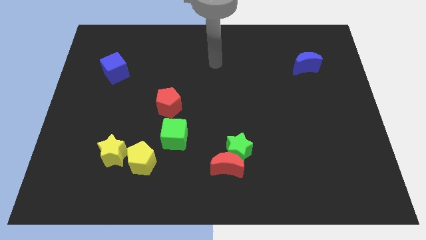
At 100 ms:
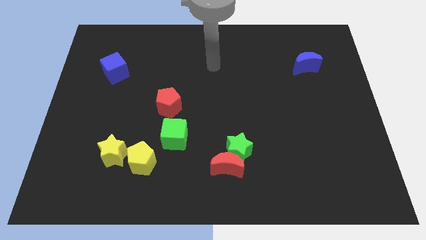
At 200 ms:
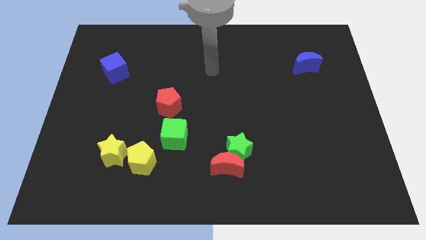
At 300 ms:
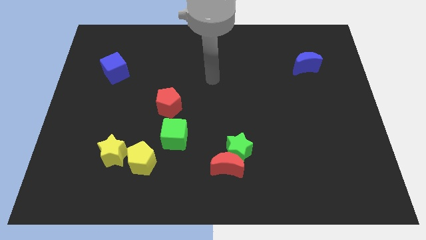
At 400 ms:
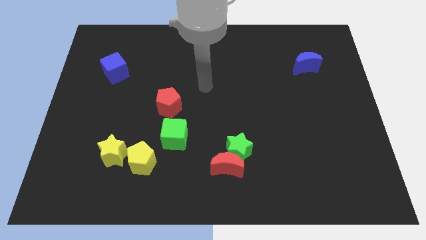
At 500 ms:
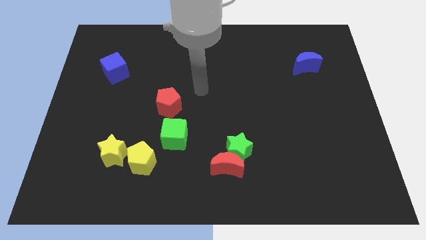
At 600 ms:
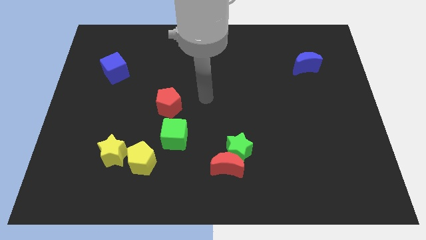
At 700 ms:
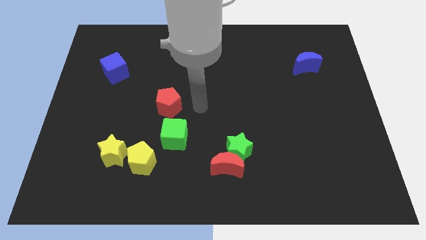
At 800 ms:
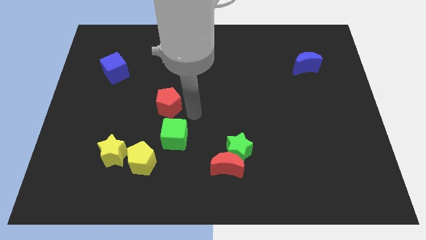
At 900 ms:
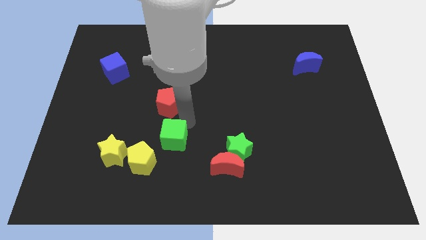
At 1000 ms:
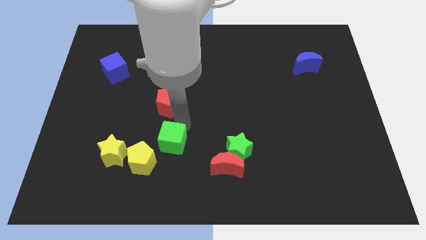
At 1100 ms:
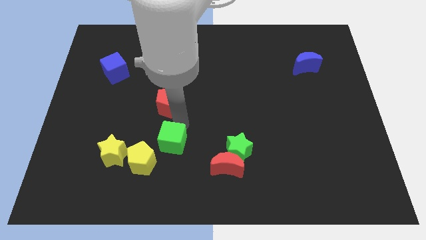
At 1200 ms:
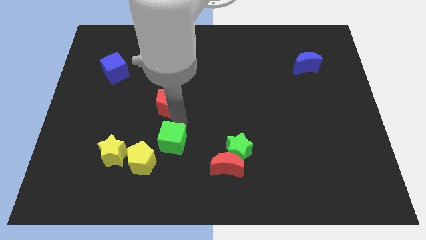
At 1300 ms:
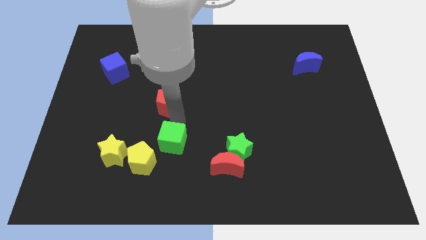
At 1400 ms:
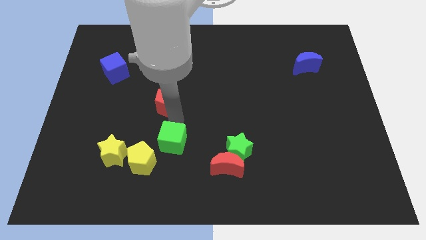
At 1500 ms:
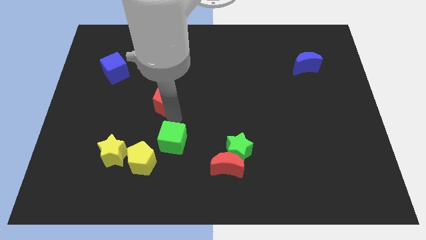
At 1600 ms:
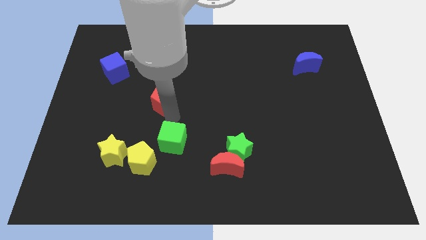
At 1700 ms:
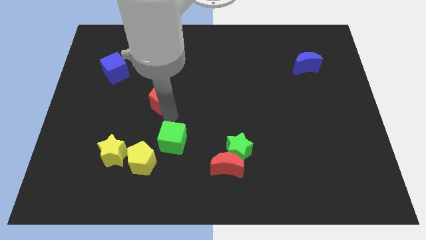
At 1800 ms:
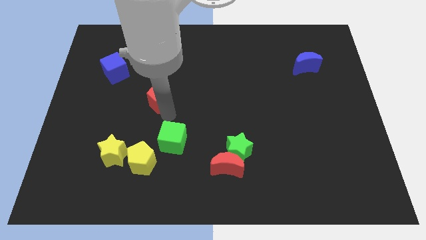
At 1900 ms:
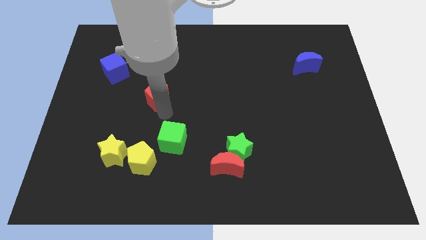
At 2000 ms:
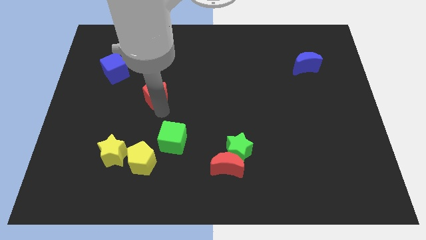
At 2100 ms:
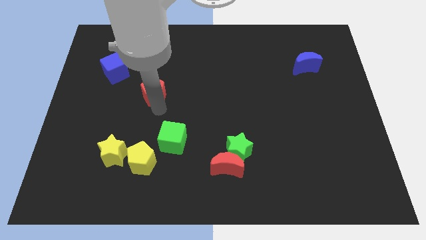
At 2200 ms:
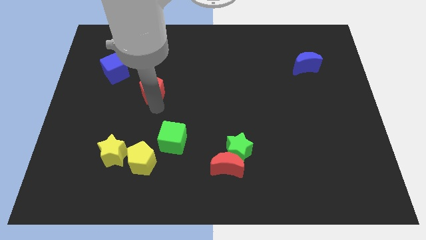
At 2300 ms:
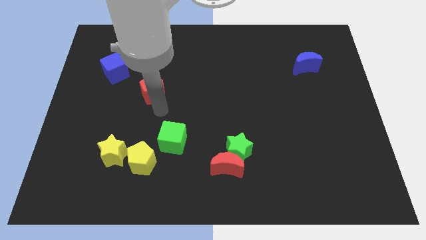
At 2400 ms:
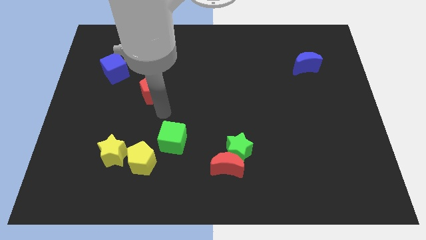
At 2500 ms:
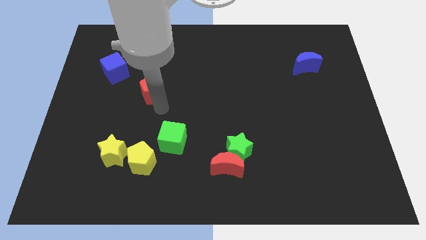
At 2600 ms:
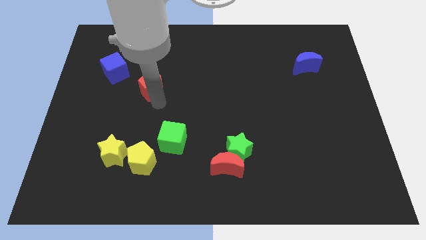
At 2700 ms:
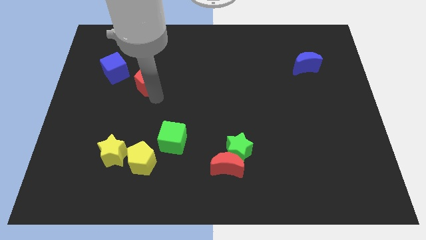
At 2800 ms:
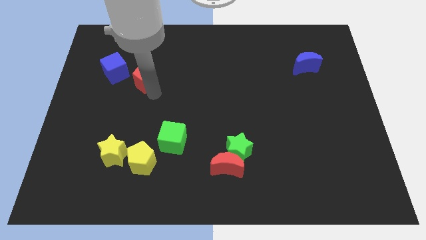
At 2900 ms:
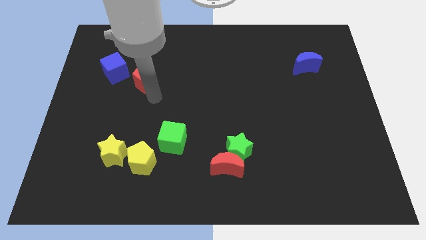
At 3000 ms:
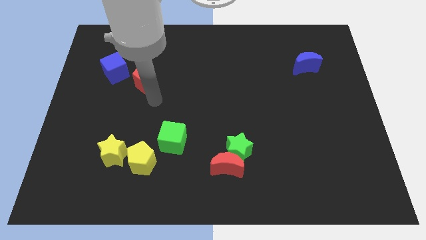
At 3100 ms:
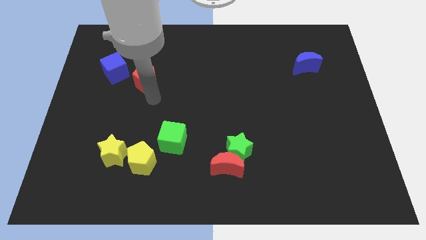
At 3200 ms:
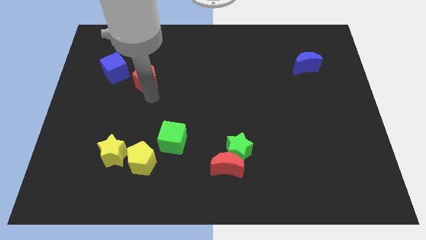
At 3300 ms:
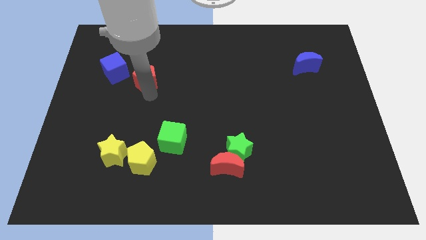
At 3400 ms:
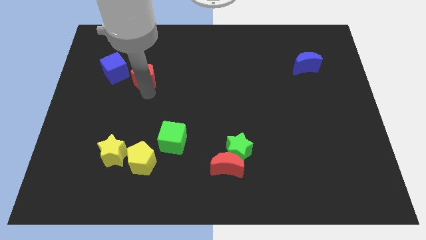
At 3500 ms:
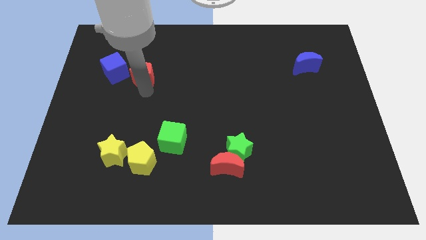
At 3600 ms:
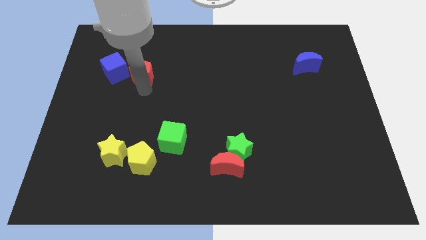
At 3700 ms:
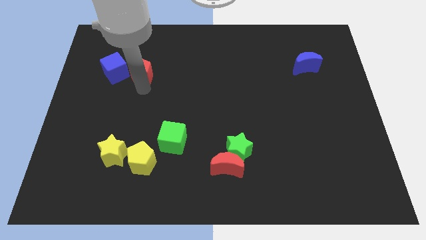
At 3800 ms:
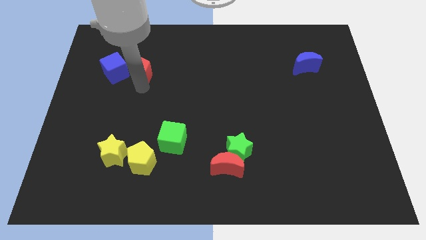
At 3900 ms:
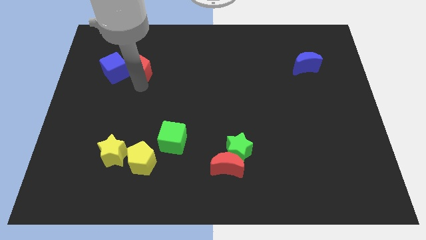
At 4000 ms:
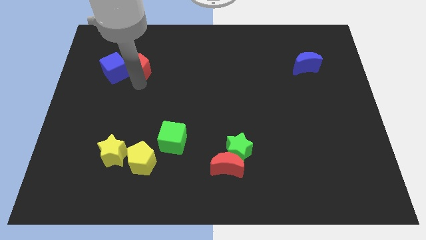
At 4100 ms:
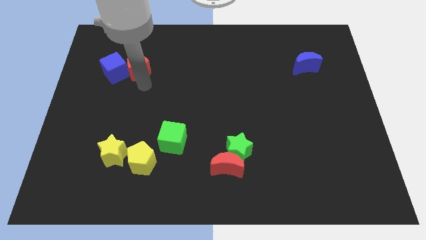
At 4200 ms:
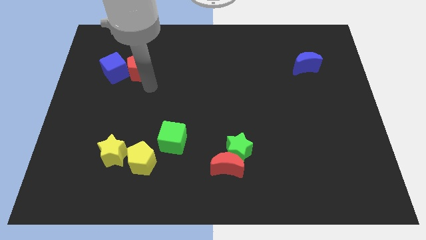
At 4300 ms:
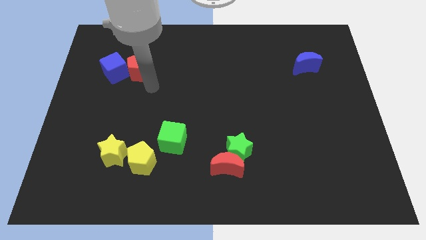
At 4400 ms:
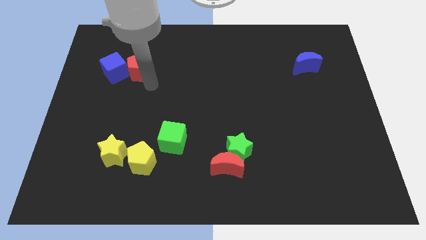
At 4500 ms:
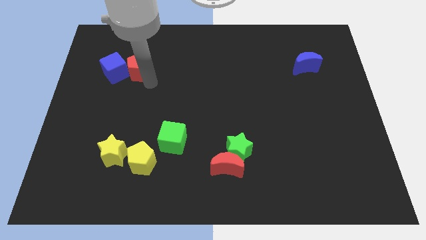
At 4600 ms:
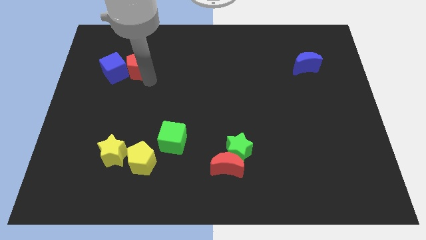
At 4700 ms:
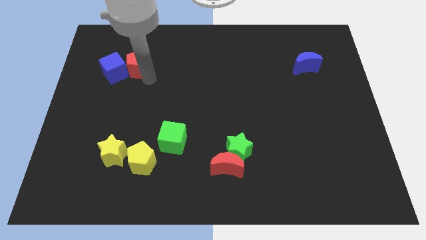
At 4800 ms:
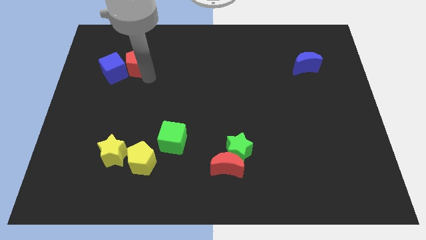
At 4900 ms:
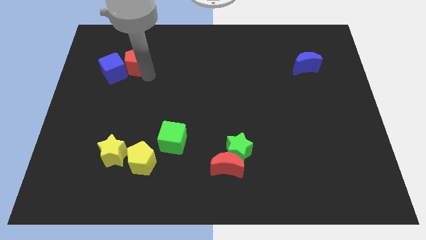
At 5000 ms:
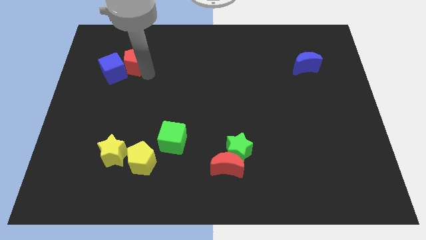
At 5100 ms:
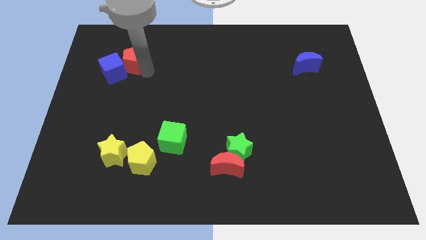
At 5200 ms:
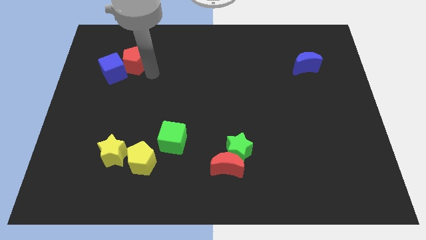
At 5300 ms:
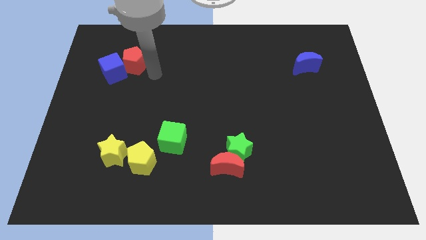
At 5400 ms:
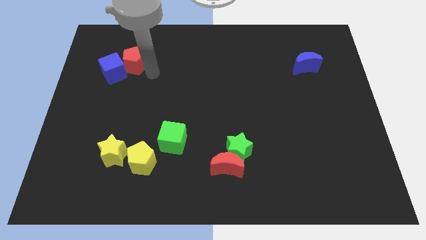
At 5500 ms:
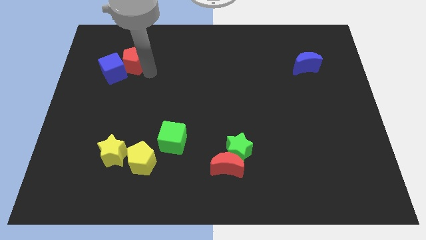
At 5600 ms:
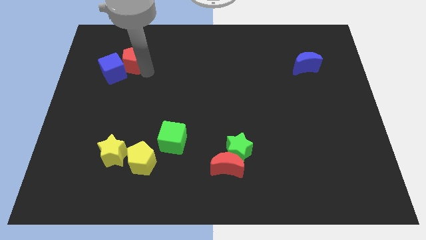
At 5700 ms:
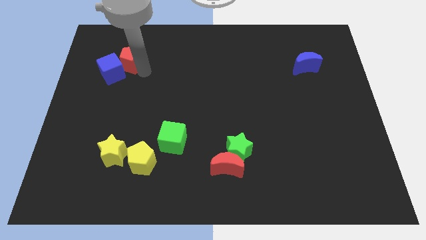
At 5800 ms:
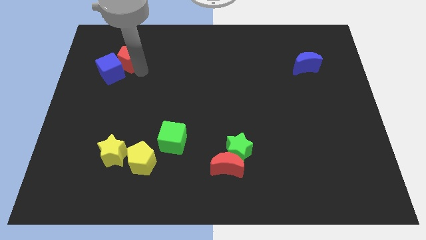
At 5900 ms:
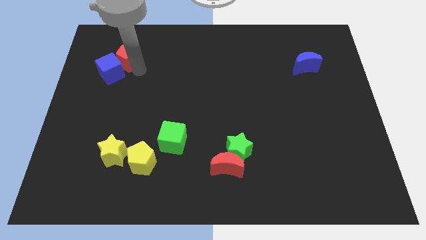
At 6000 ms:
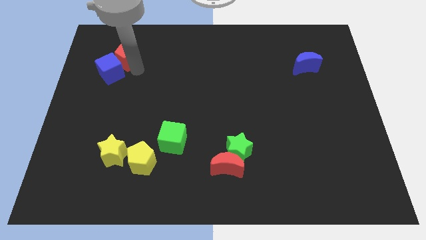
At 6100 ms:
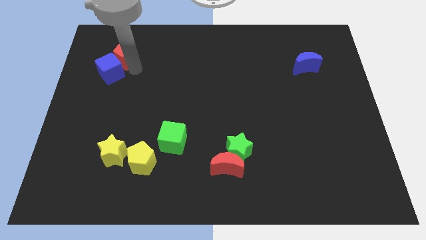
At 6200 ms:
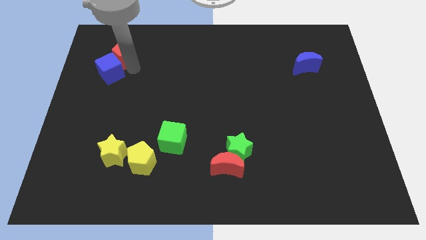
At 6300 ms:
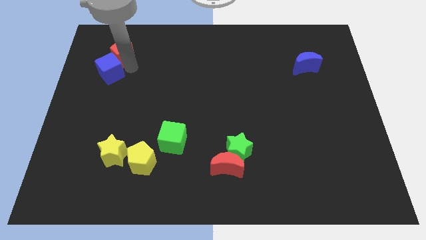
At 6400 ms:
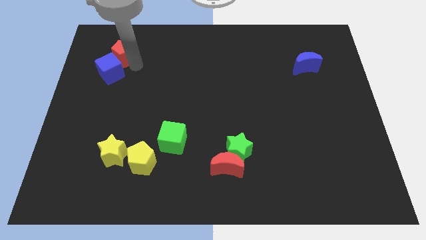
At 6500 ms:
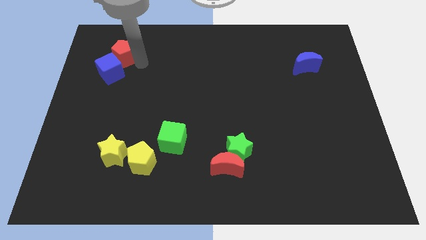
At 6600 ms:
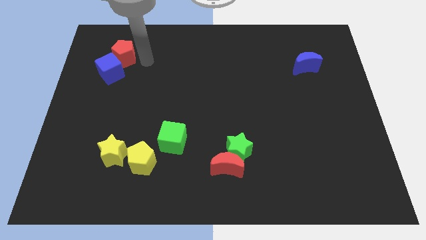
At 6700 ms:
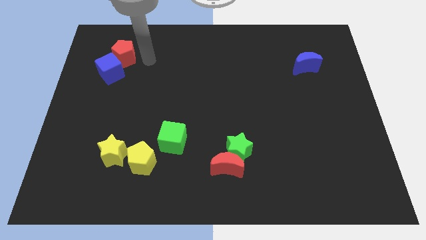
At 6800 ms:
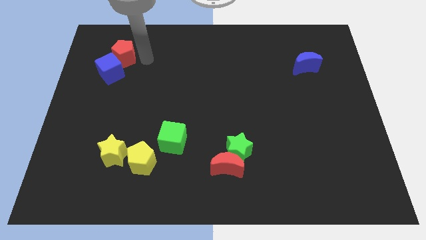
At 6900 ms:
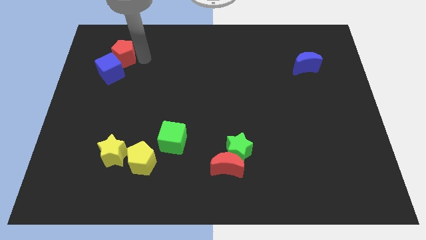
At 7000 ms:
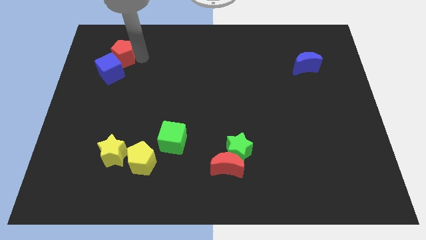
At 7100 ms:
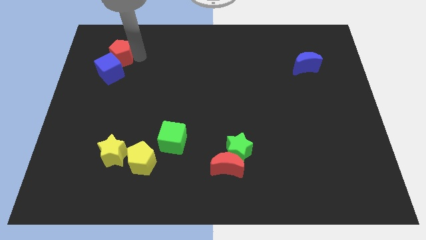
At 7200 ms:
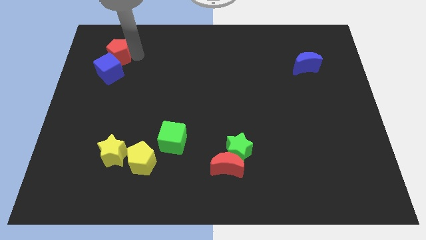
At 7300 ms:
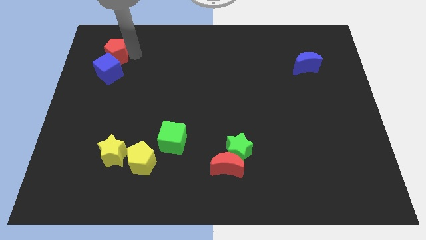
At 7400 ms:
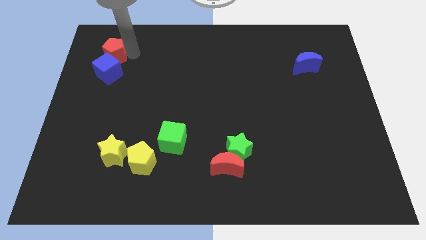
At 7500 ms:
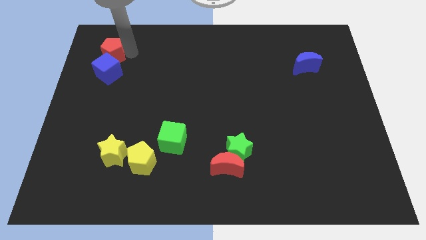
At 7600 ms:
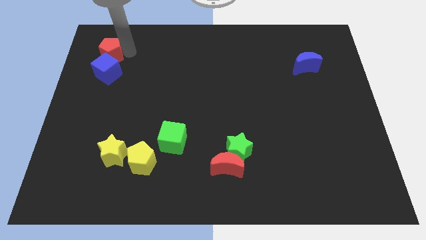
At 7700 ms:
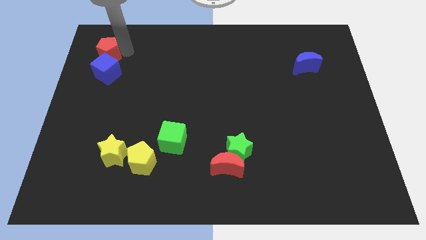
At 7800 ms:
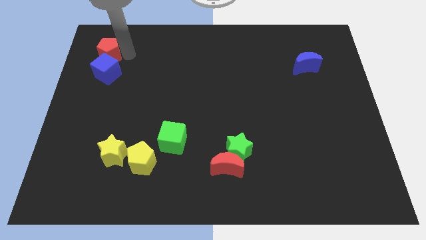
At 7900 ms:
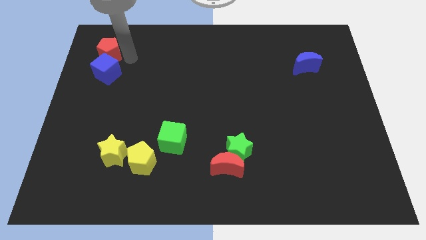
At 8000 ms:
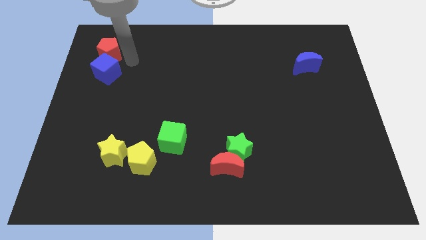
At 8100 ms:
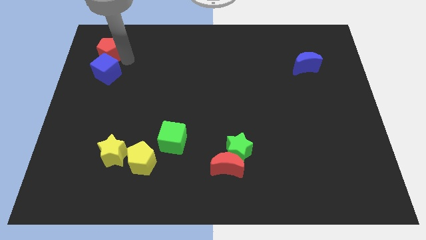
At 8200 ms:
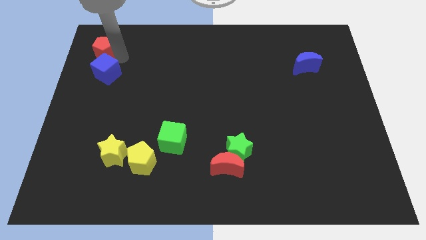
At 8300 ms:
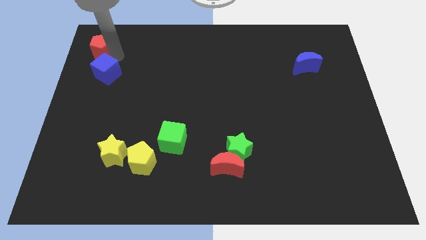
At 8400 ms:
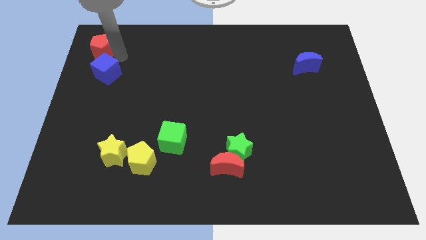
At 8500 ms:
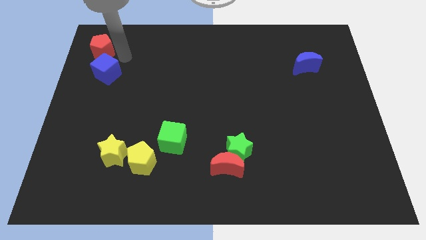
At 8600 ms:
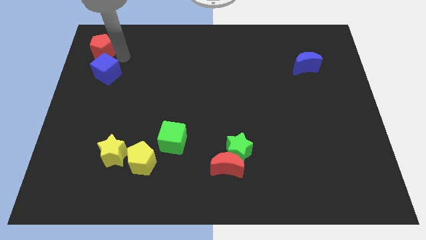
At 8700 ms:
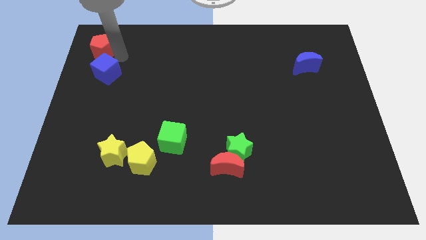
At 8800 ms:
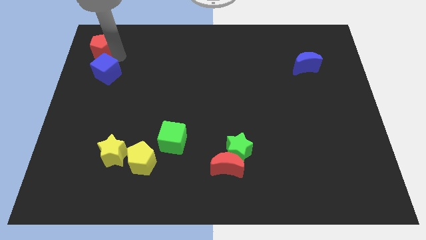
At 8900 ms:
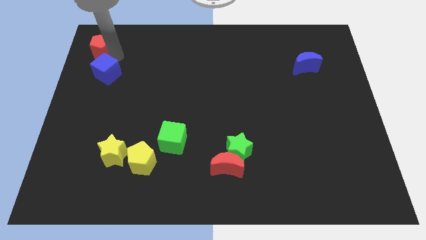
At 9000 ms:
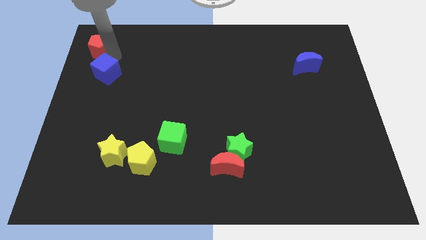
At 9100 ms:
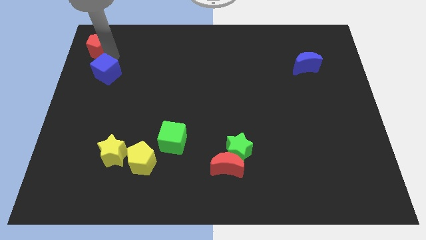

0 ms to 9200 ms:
move the red pentagon to the top left corner
